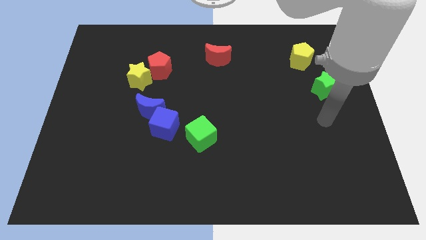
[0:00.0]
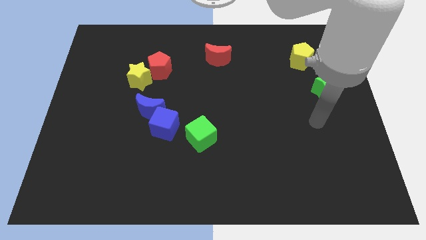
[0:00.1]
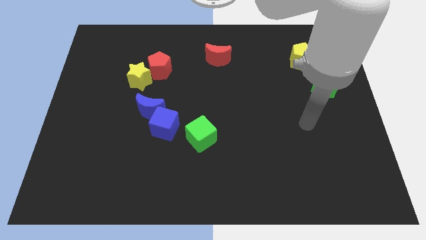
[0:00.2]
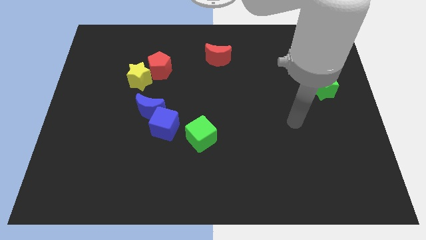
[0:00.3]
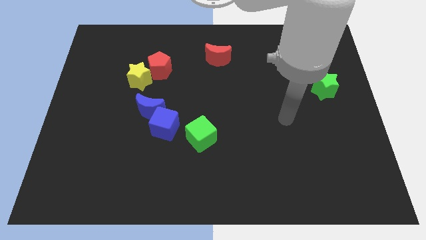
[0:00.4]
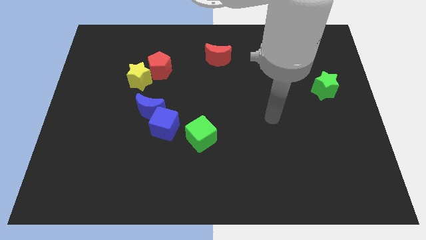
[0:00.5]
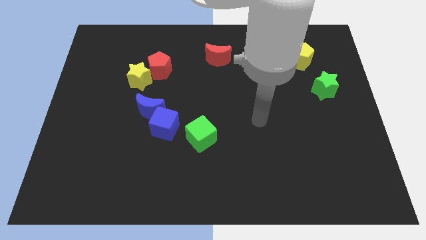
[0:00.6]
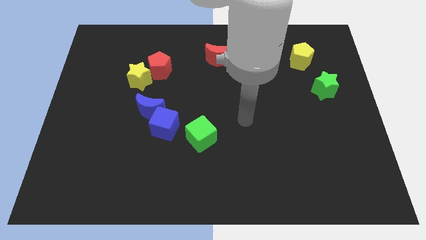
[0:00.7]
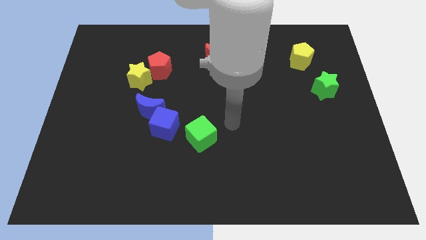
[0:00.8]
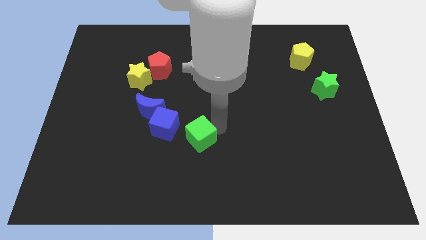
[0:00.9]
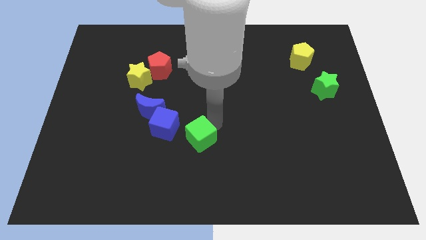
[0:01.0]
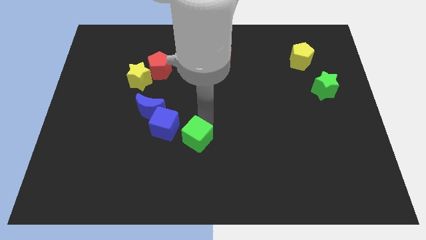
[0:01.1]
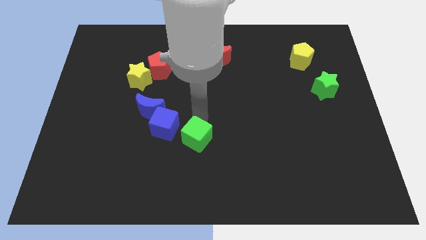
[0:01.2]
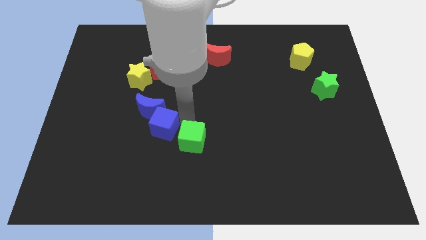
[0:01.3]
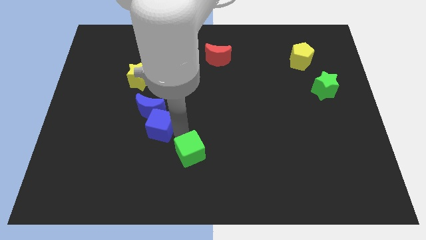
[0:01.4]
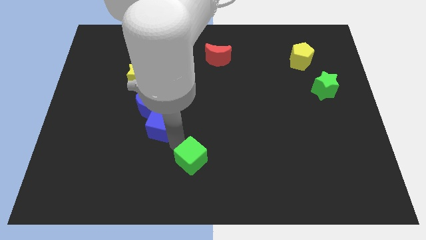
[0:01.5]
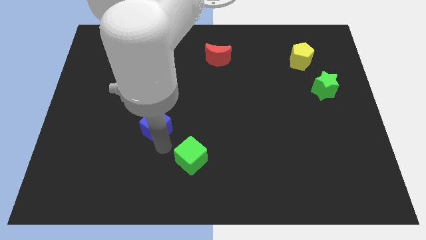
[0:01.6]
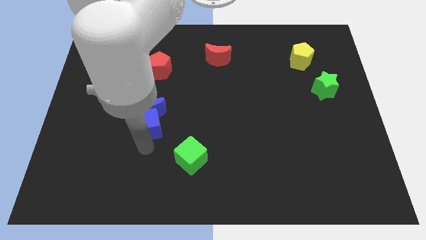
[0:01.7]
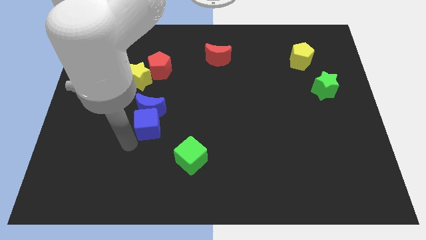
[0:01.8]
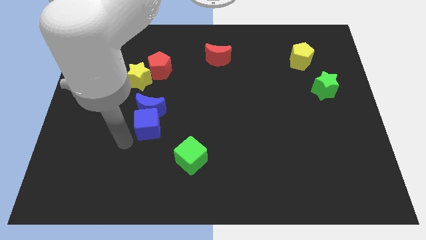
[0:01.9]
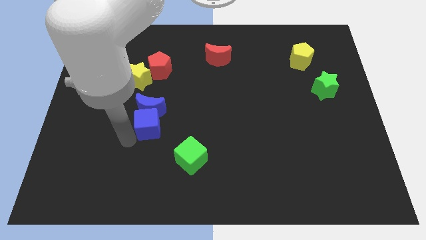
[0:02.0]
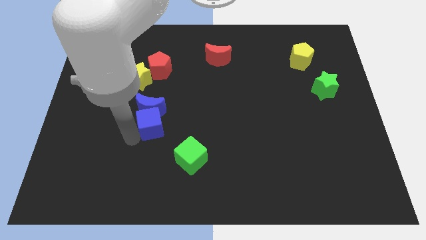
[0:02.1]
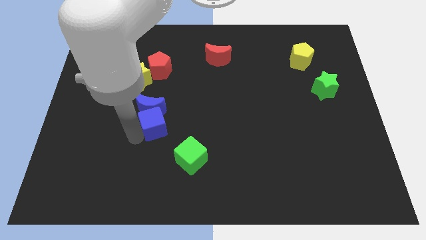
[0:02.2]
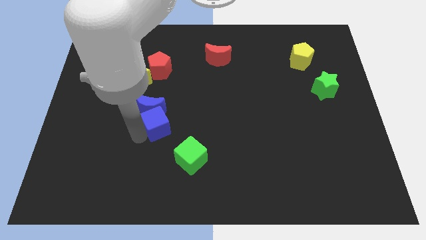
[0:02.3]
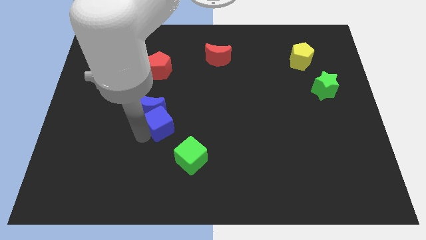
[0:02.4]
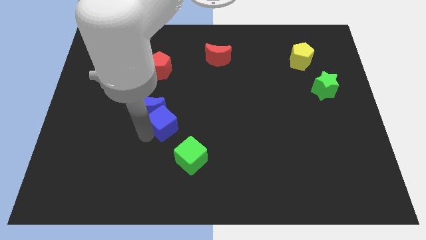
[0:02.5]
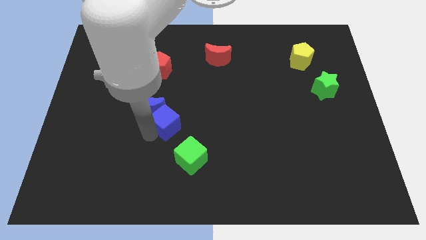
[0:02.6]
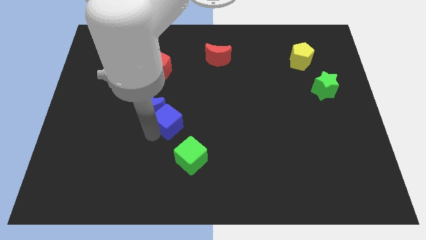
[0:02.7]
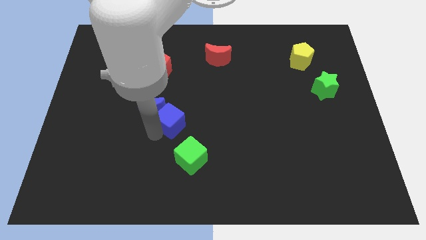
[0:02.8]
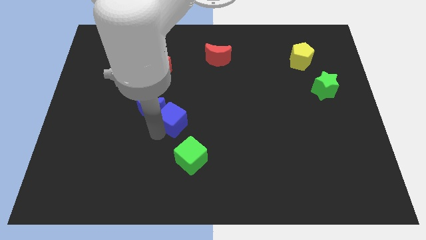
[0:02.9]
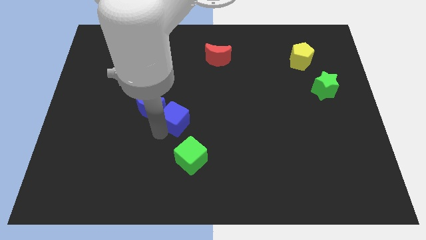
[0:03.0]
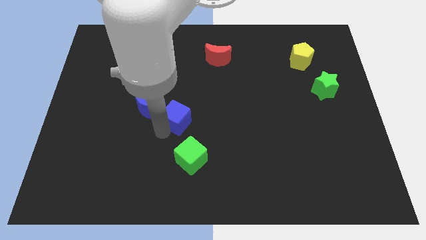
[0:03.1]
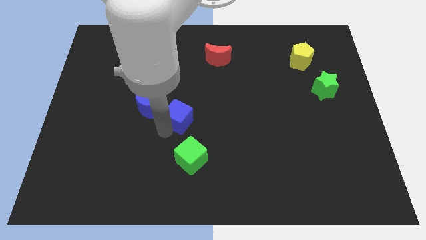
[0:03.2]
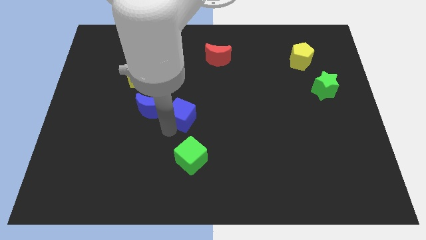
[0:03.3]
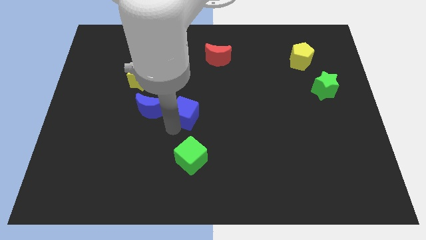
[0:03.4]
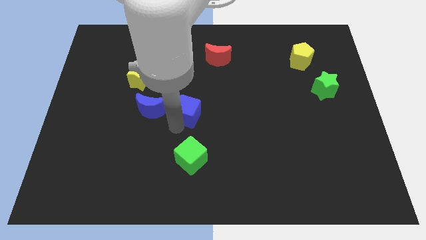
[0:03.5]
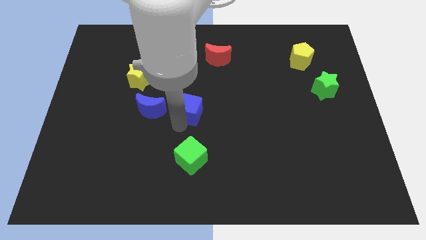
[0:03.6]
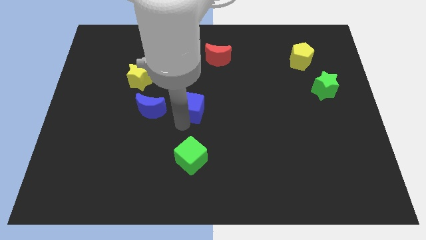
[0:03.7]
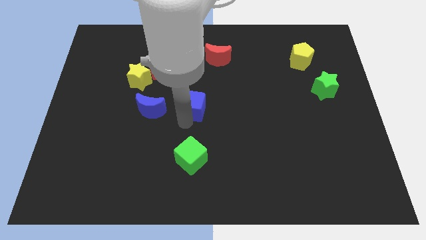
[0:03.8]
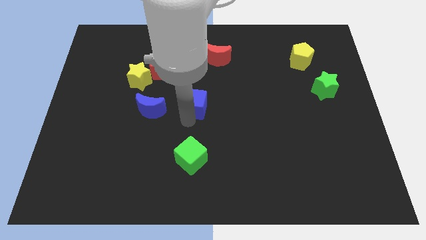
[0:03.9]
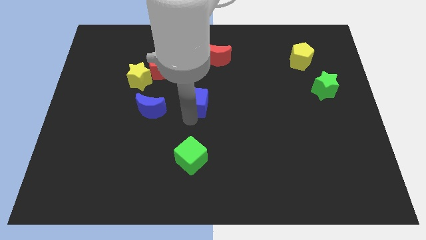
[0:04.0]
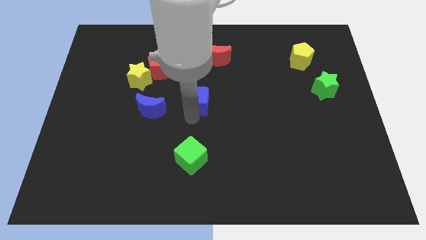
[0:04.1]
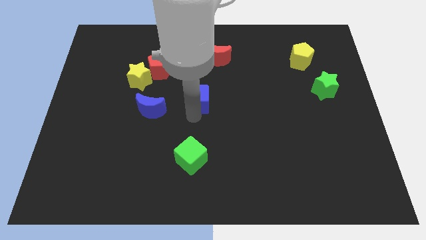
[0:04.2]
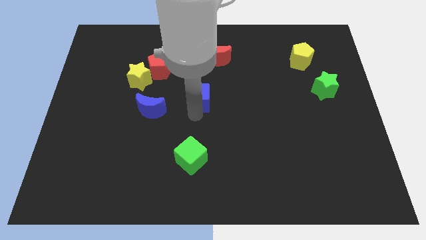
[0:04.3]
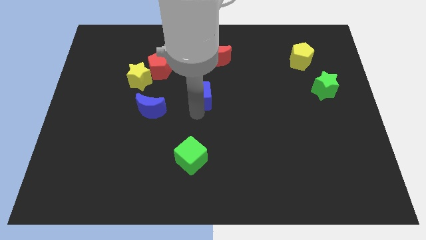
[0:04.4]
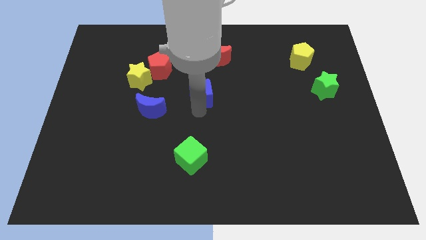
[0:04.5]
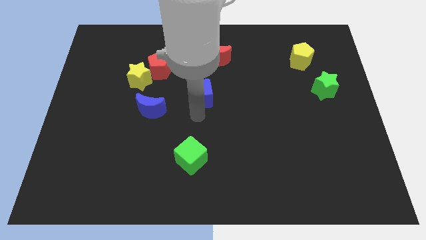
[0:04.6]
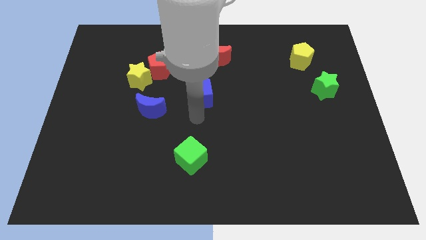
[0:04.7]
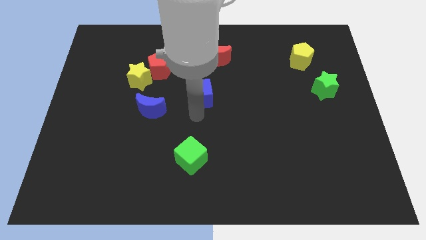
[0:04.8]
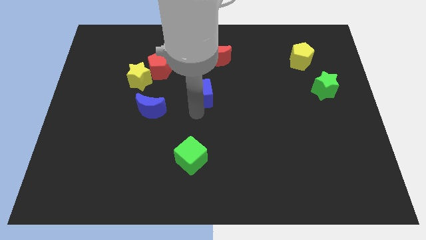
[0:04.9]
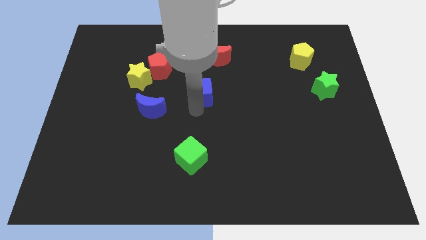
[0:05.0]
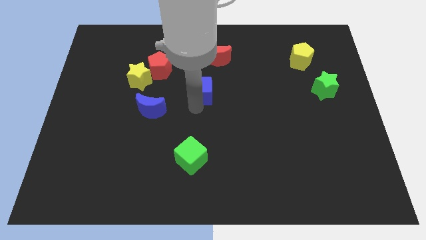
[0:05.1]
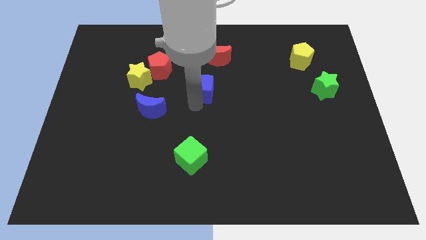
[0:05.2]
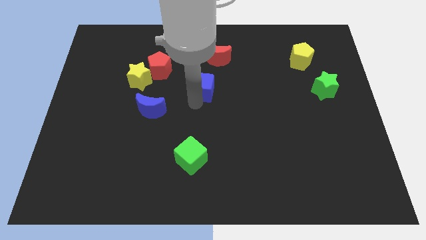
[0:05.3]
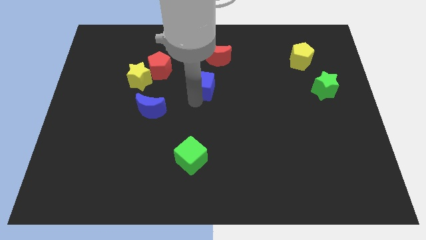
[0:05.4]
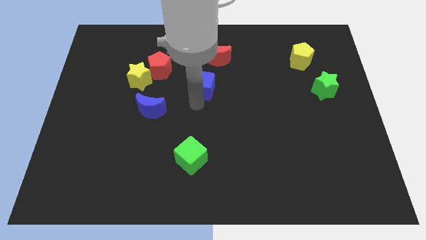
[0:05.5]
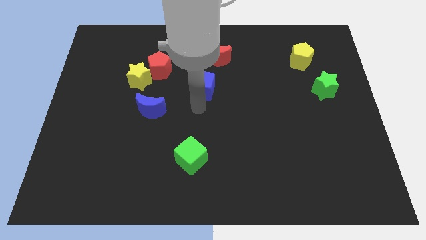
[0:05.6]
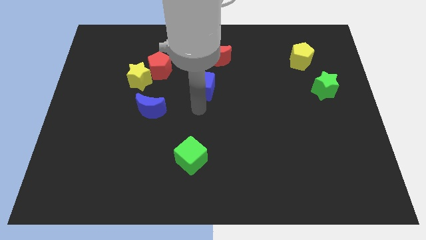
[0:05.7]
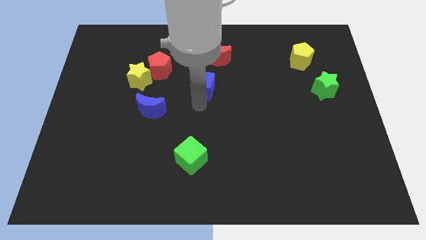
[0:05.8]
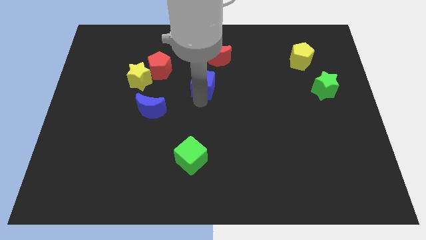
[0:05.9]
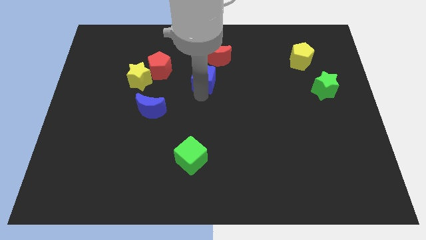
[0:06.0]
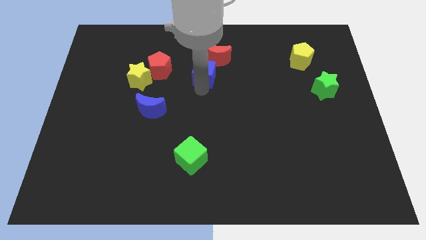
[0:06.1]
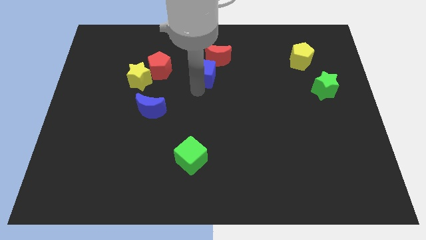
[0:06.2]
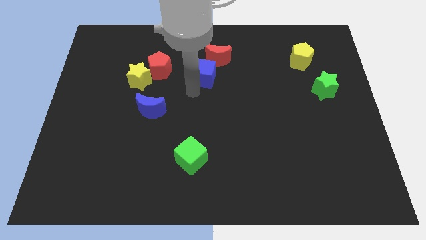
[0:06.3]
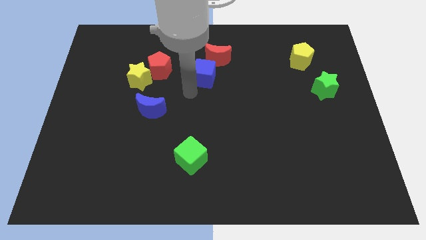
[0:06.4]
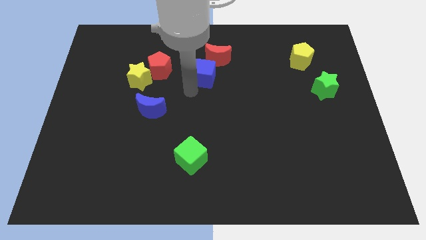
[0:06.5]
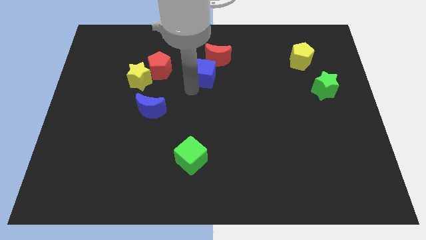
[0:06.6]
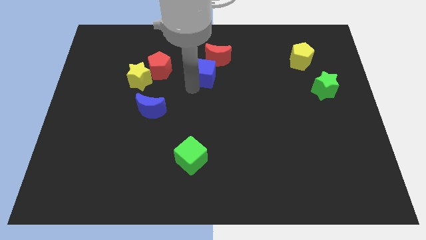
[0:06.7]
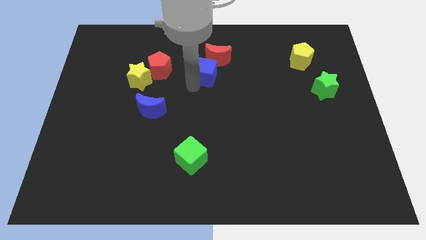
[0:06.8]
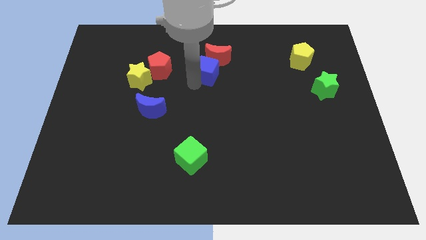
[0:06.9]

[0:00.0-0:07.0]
move the blue cube towards the red moon
